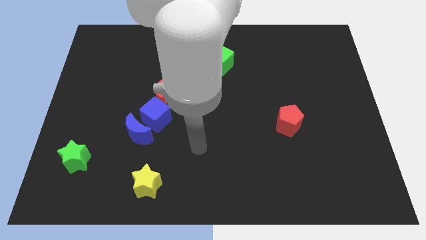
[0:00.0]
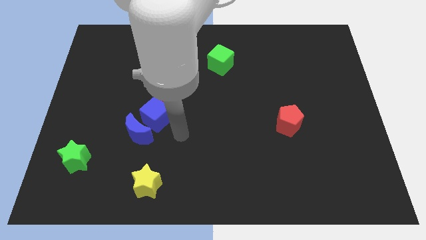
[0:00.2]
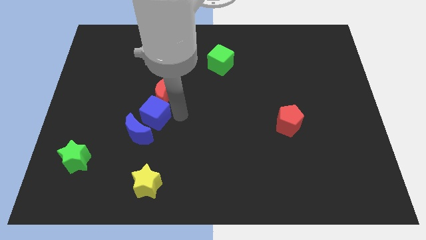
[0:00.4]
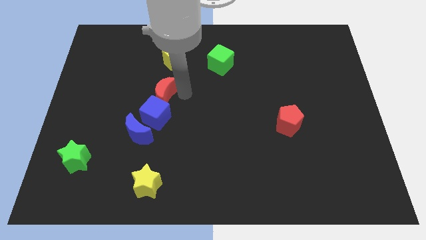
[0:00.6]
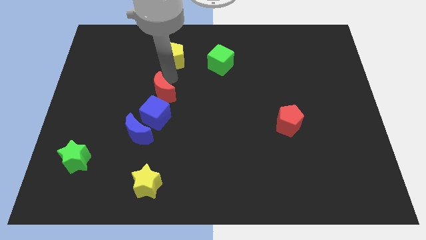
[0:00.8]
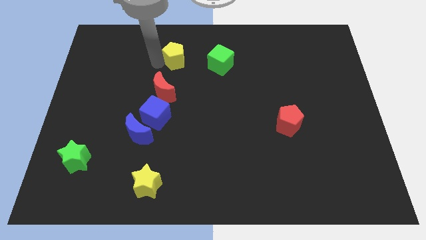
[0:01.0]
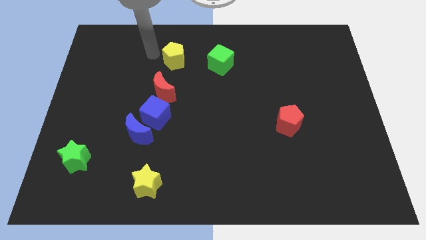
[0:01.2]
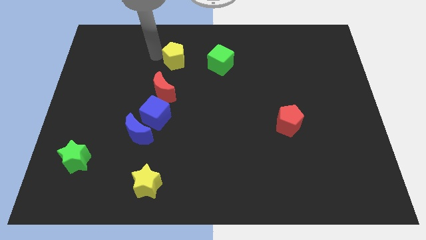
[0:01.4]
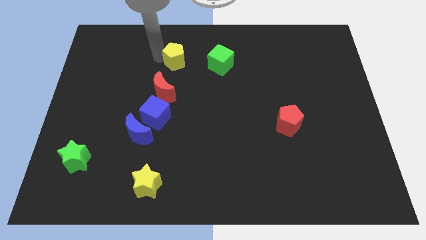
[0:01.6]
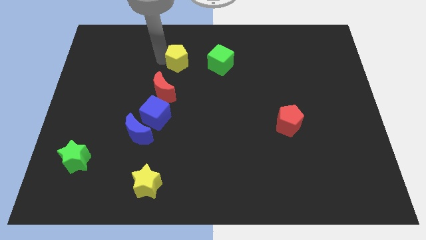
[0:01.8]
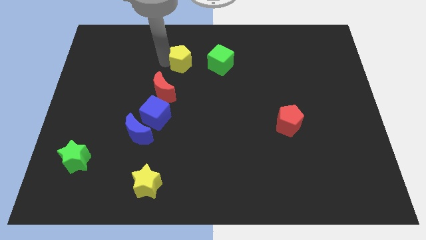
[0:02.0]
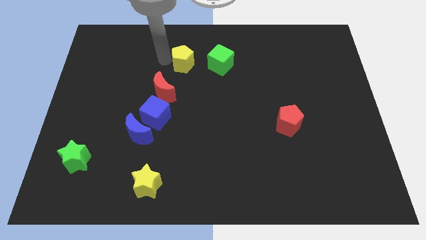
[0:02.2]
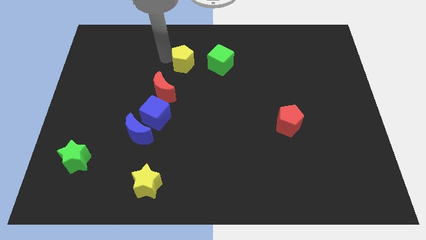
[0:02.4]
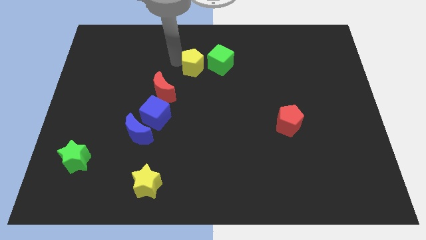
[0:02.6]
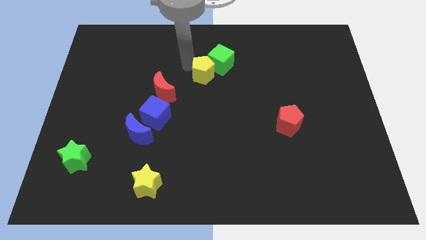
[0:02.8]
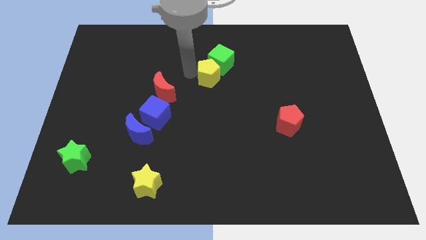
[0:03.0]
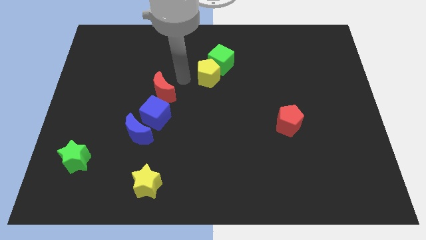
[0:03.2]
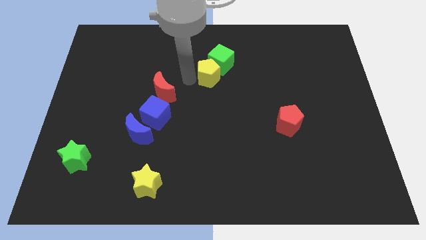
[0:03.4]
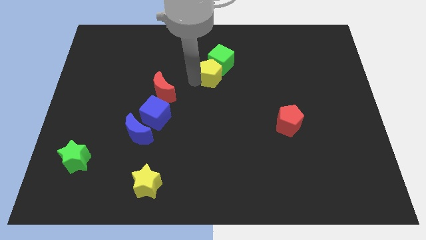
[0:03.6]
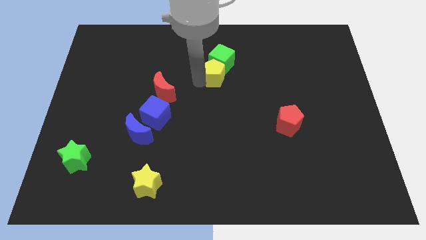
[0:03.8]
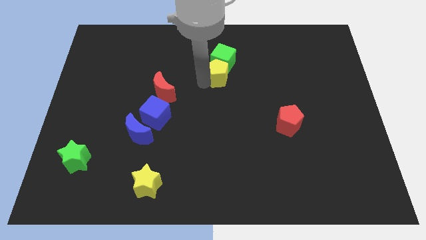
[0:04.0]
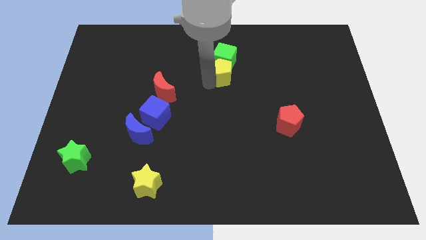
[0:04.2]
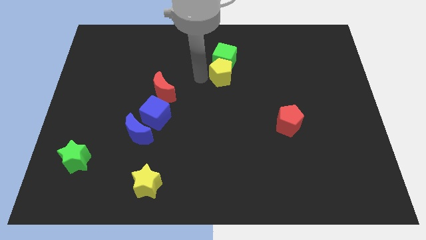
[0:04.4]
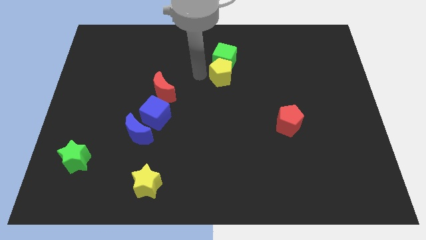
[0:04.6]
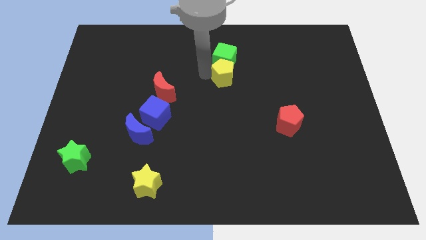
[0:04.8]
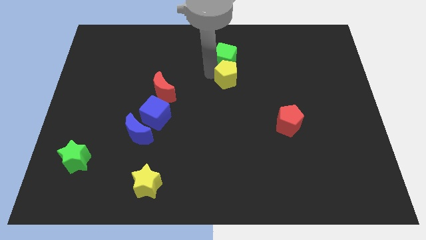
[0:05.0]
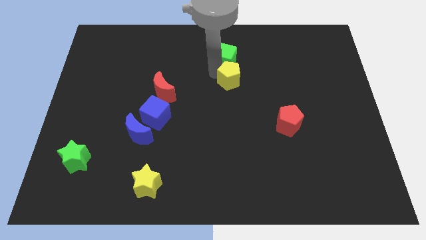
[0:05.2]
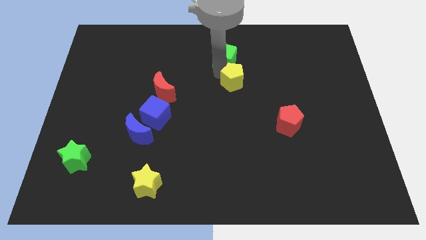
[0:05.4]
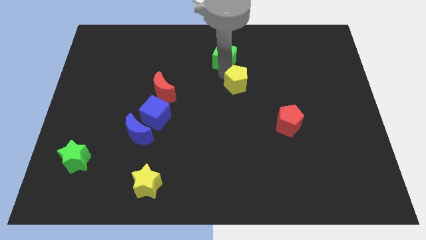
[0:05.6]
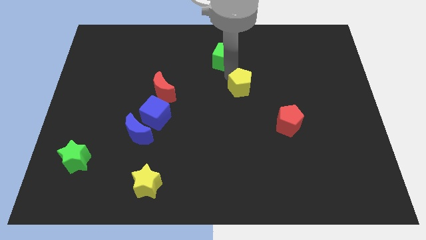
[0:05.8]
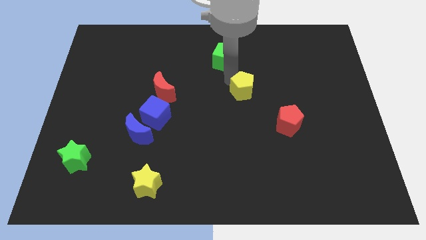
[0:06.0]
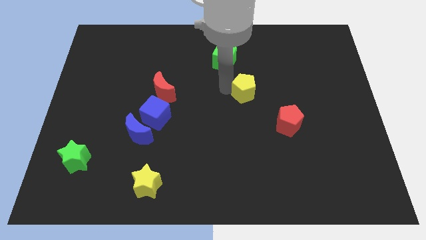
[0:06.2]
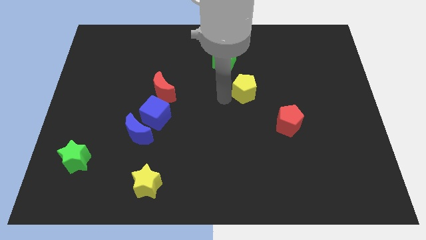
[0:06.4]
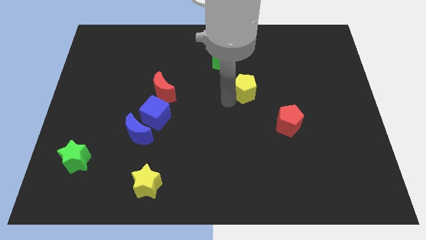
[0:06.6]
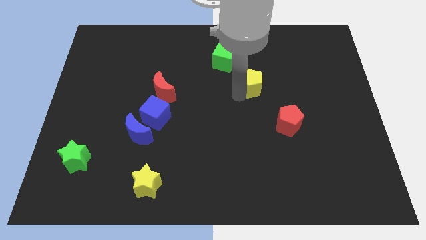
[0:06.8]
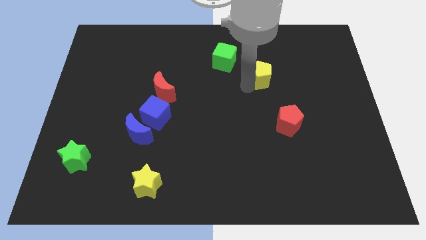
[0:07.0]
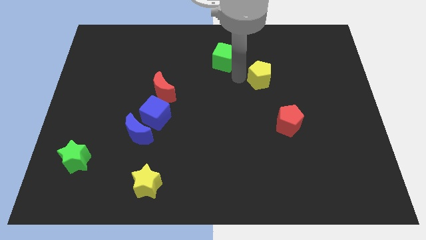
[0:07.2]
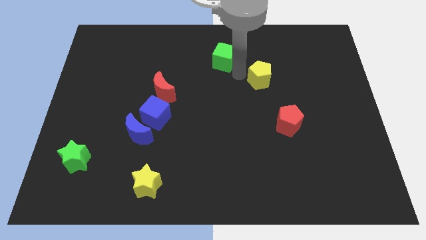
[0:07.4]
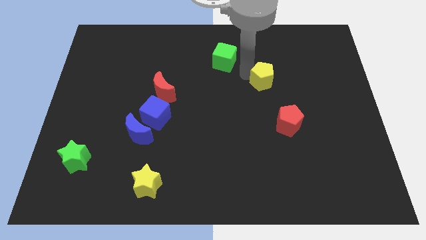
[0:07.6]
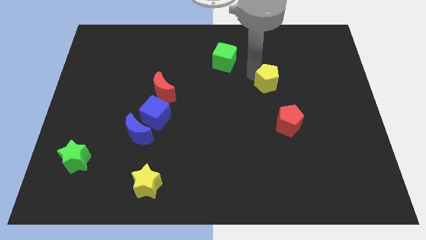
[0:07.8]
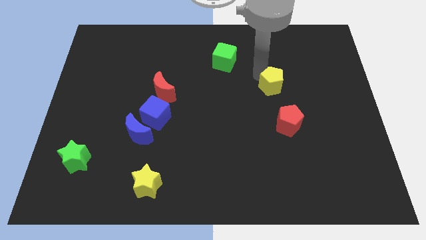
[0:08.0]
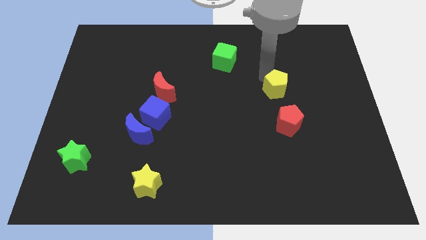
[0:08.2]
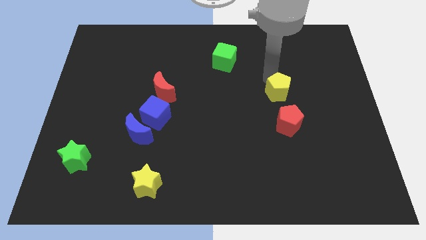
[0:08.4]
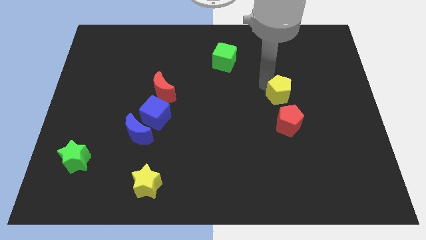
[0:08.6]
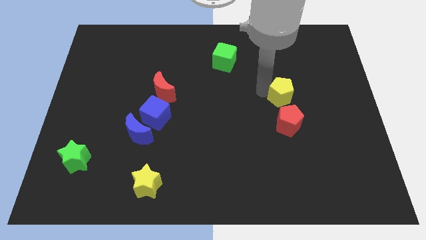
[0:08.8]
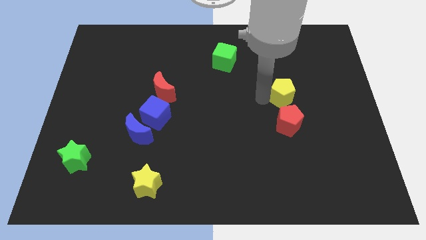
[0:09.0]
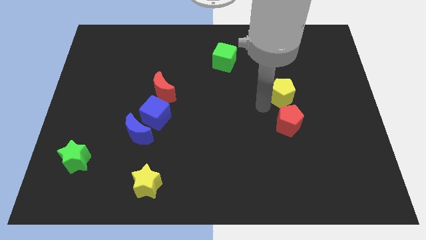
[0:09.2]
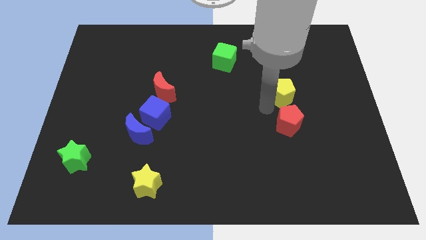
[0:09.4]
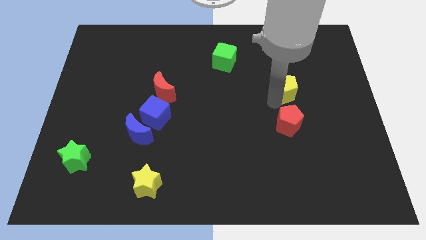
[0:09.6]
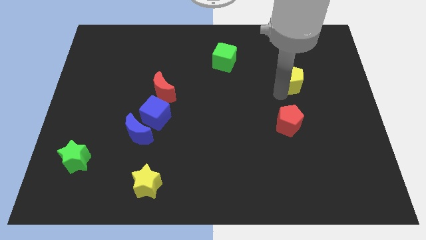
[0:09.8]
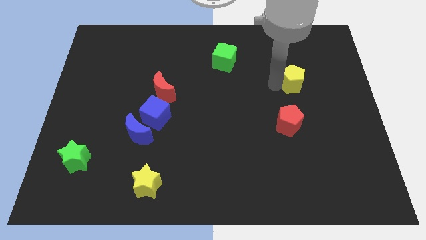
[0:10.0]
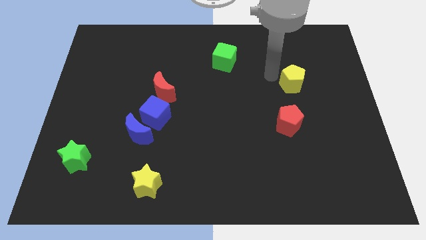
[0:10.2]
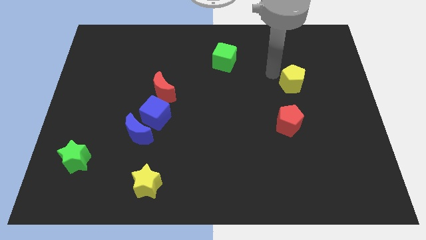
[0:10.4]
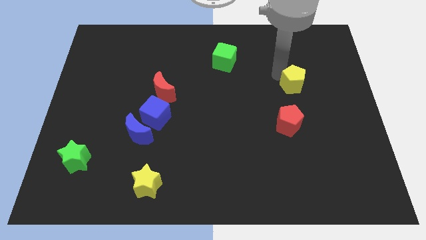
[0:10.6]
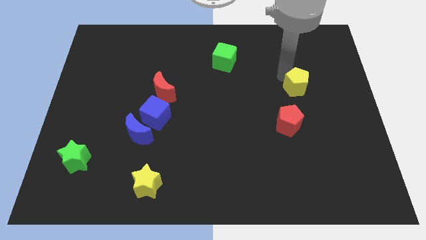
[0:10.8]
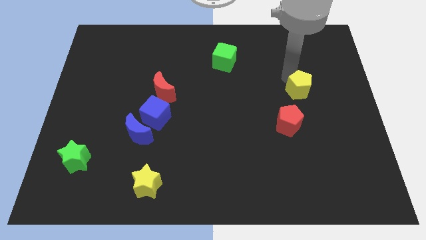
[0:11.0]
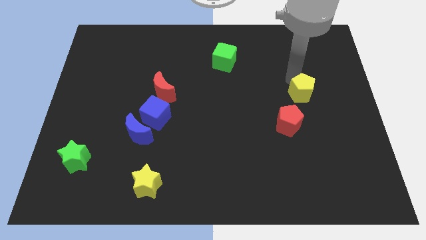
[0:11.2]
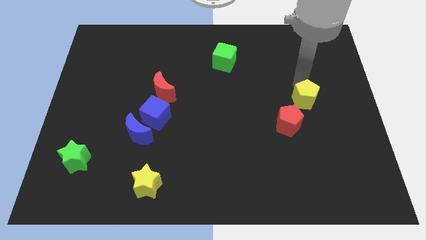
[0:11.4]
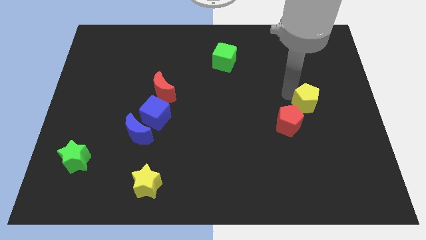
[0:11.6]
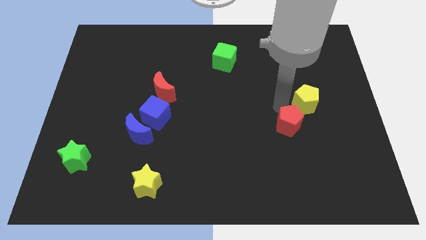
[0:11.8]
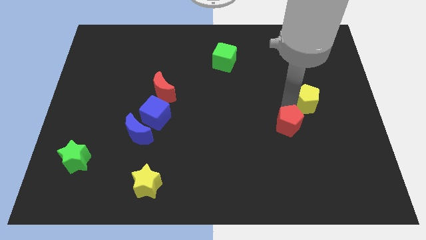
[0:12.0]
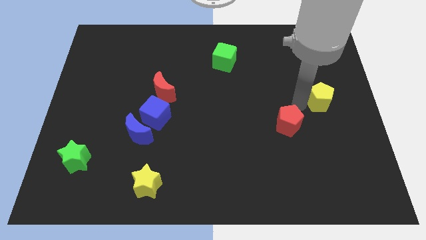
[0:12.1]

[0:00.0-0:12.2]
push the yellow pentagon to the right side of the board

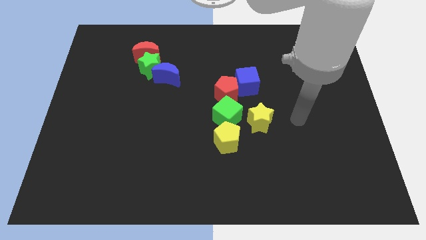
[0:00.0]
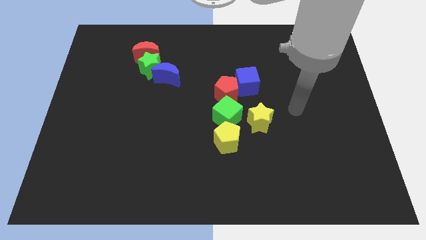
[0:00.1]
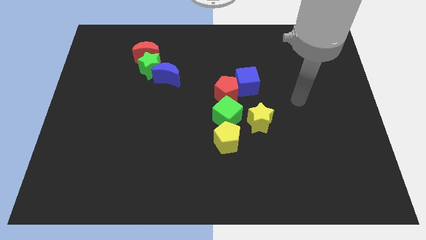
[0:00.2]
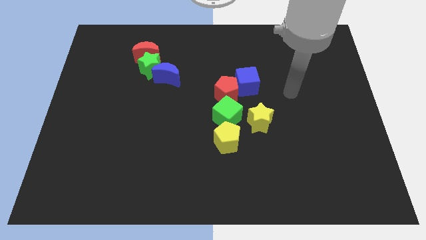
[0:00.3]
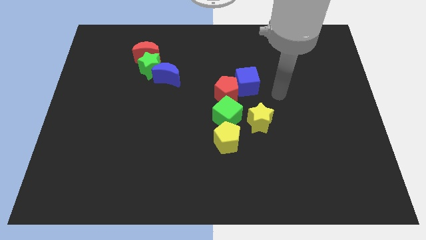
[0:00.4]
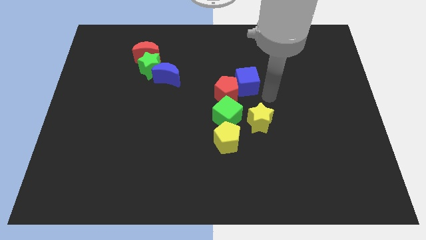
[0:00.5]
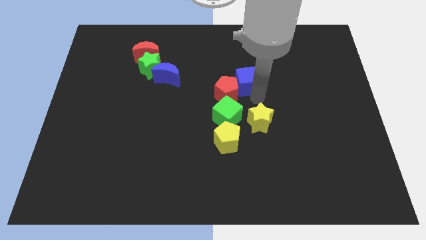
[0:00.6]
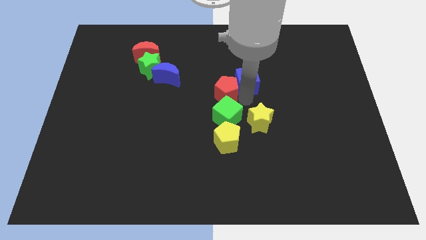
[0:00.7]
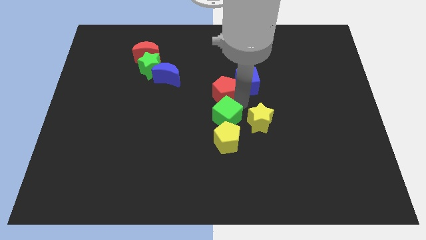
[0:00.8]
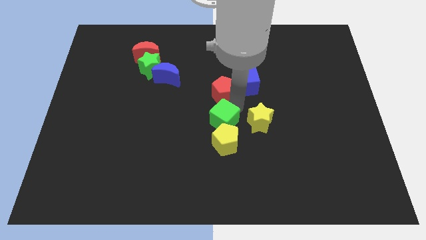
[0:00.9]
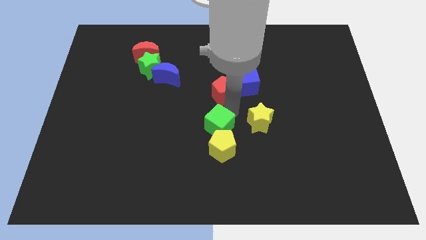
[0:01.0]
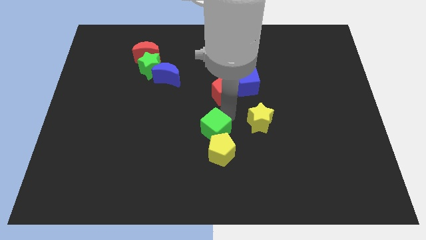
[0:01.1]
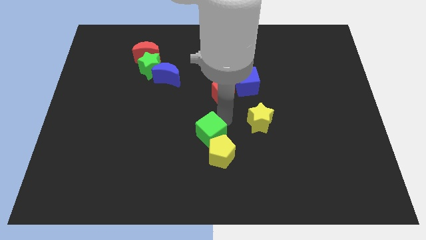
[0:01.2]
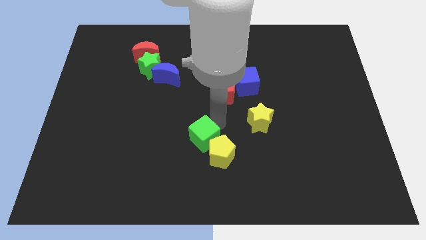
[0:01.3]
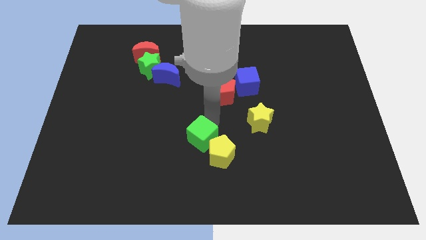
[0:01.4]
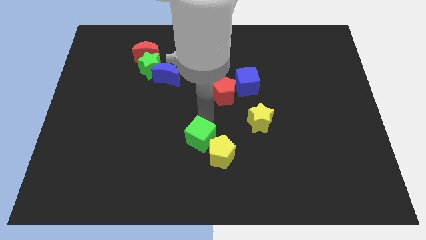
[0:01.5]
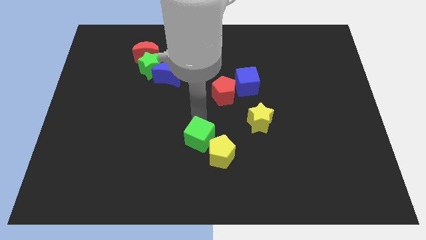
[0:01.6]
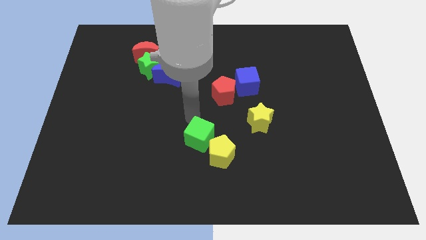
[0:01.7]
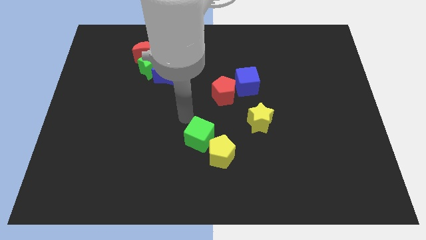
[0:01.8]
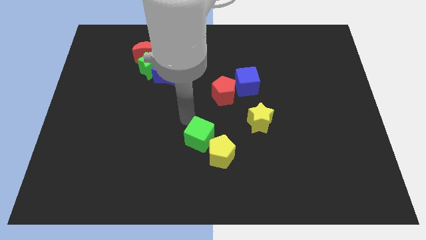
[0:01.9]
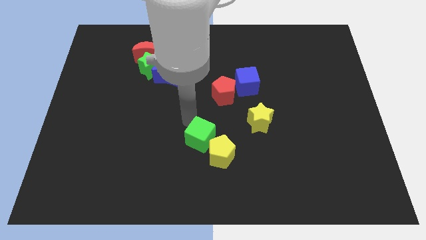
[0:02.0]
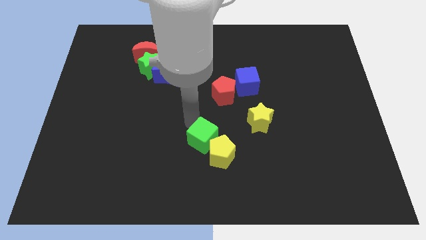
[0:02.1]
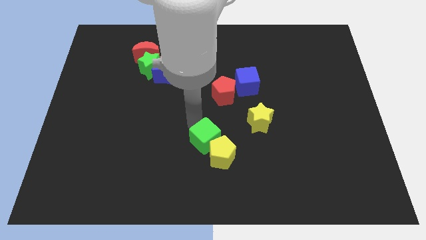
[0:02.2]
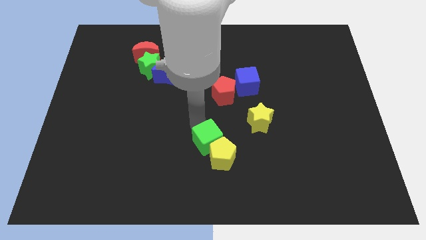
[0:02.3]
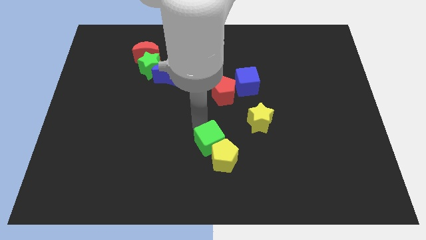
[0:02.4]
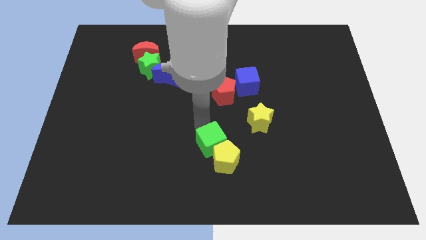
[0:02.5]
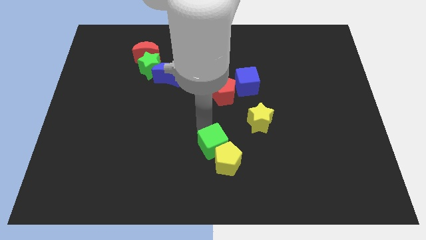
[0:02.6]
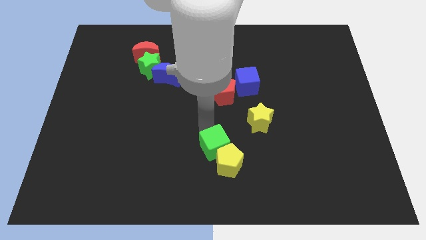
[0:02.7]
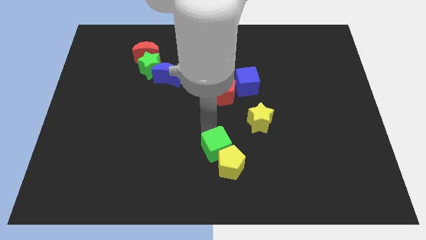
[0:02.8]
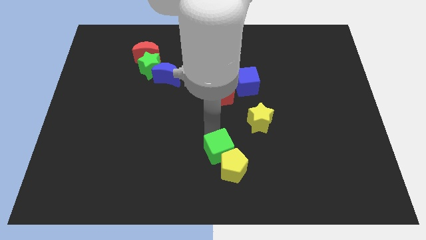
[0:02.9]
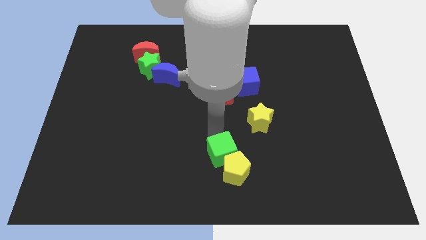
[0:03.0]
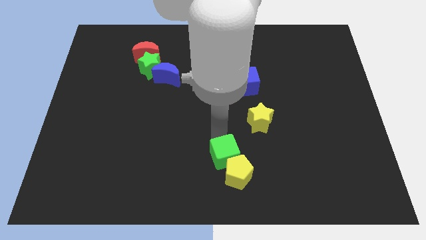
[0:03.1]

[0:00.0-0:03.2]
move the green cube to the bottom
